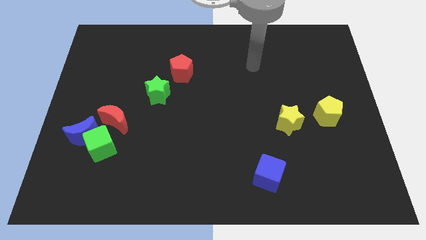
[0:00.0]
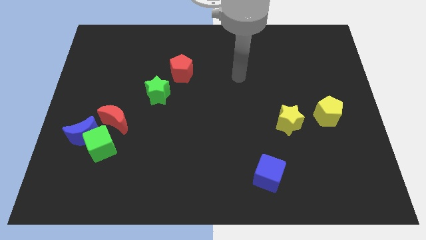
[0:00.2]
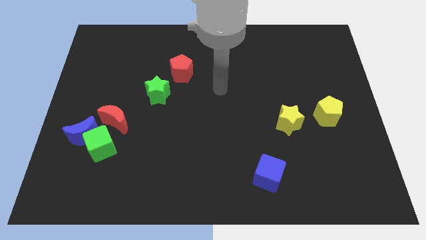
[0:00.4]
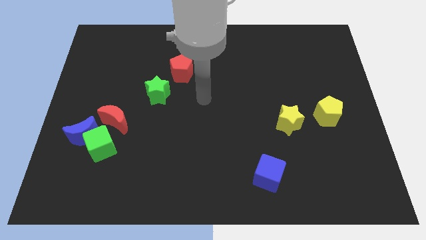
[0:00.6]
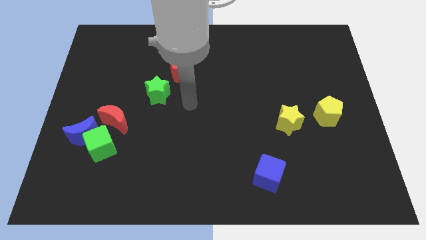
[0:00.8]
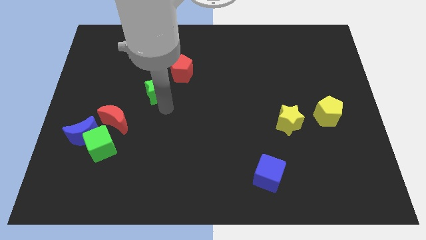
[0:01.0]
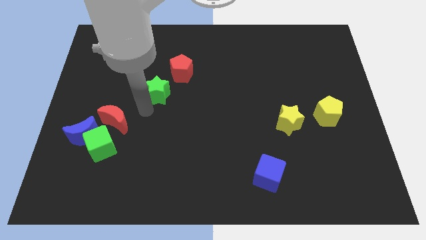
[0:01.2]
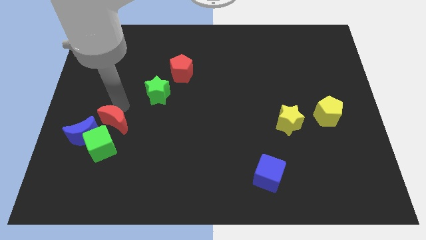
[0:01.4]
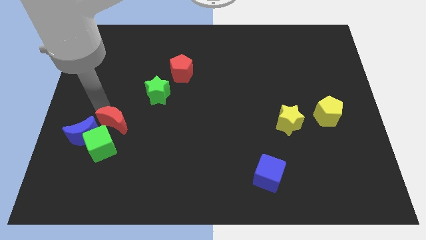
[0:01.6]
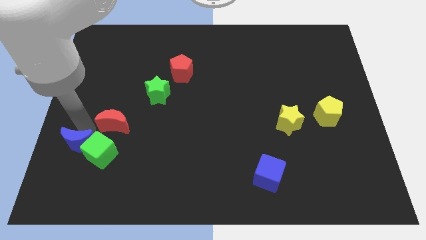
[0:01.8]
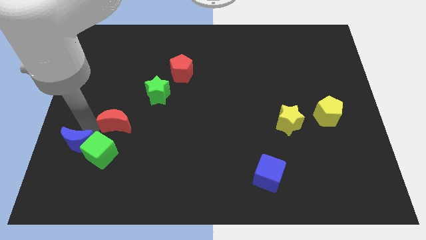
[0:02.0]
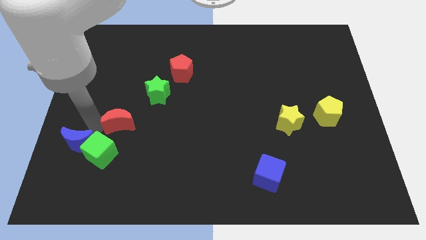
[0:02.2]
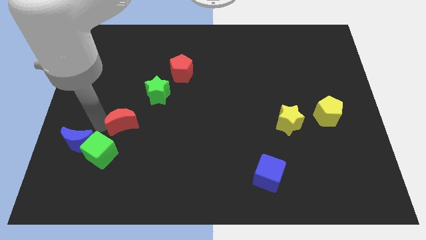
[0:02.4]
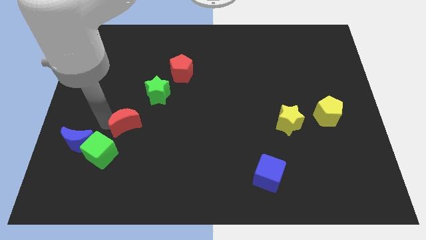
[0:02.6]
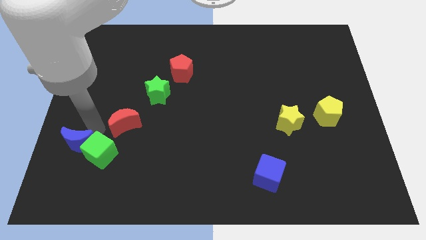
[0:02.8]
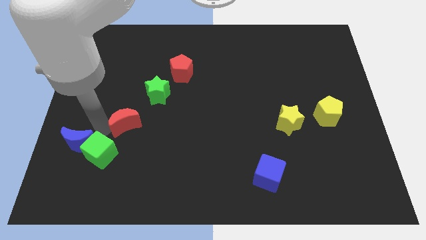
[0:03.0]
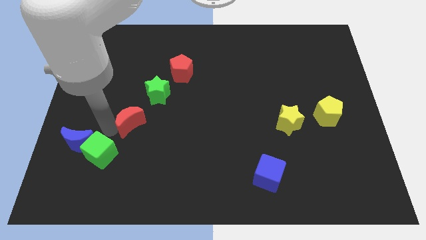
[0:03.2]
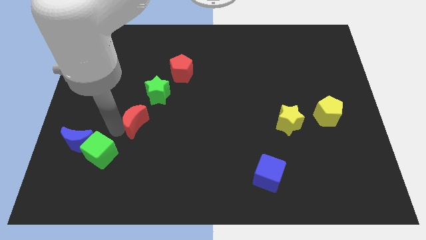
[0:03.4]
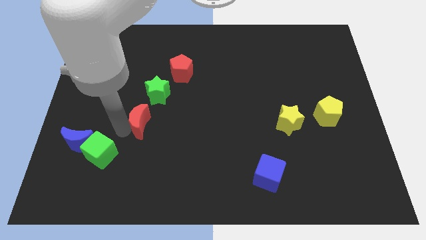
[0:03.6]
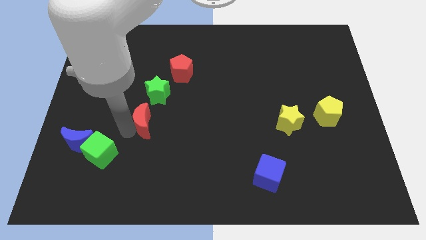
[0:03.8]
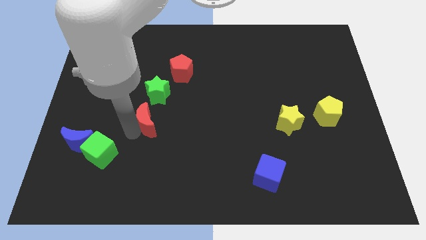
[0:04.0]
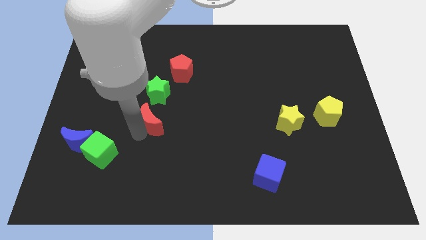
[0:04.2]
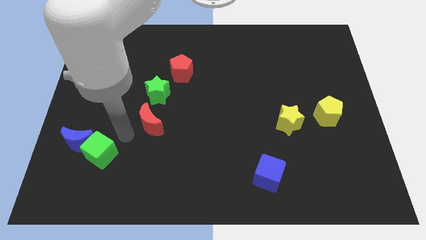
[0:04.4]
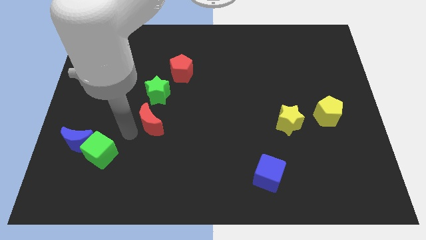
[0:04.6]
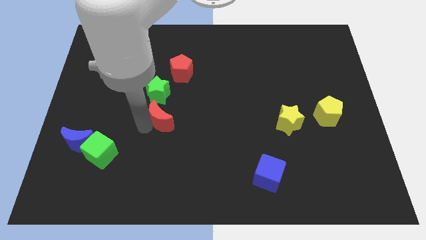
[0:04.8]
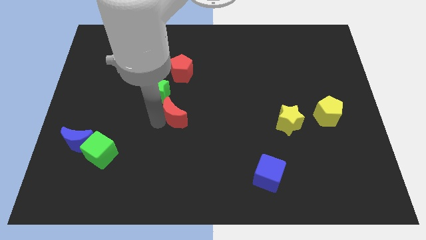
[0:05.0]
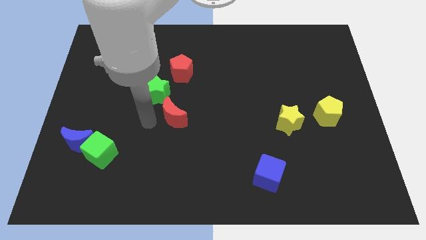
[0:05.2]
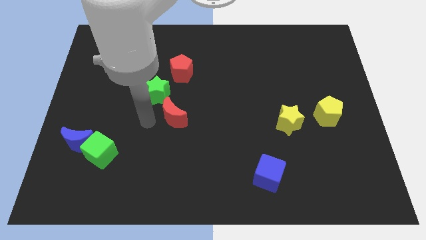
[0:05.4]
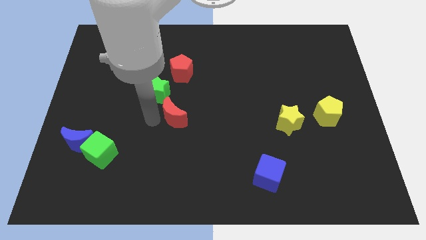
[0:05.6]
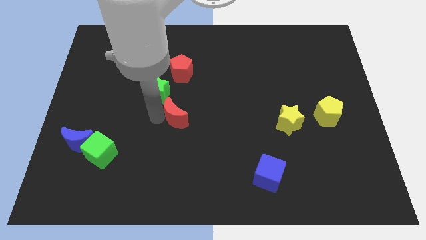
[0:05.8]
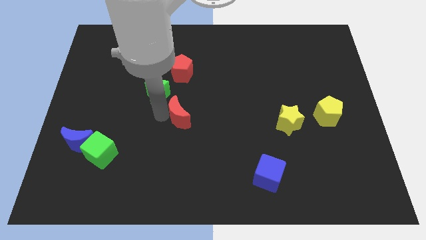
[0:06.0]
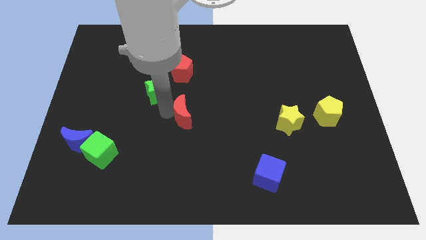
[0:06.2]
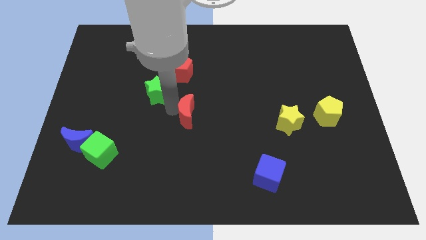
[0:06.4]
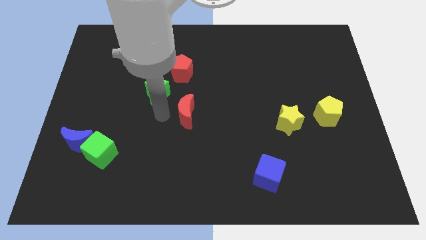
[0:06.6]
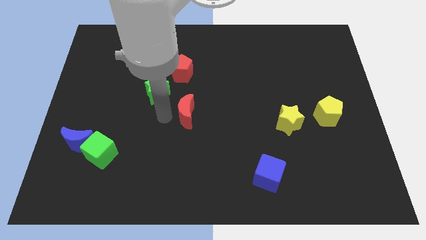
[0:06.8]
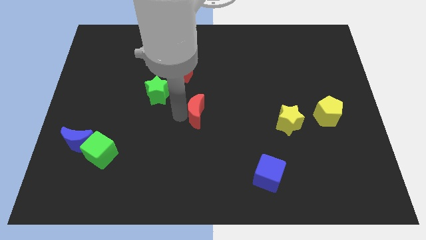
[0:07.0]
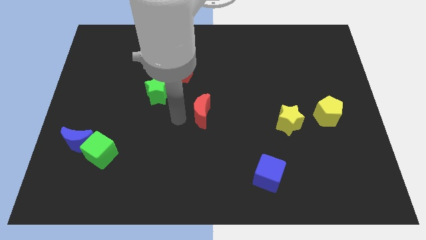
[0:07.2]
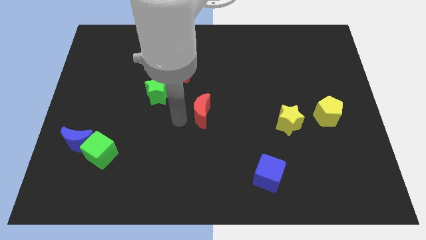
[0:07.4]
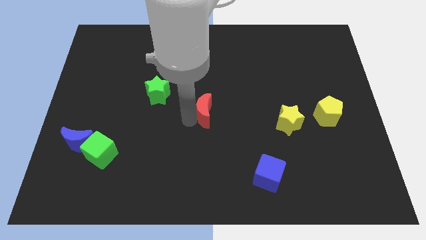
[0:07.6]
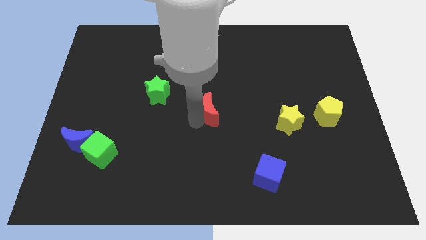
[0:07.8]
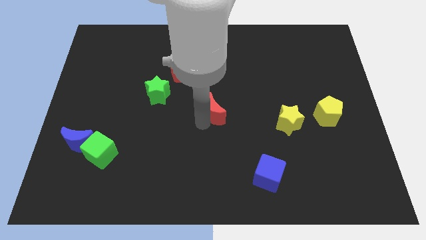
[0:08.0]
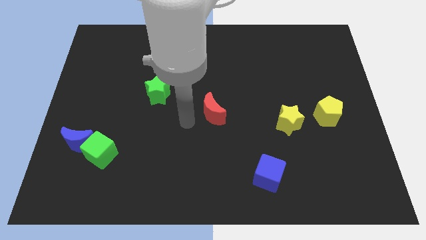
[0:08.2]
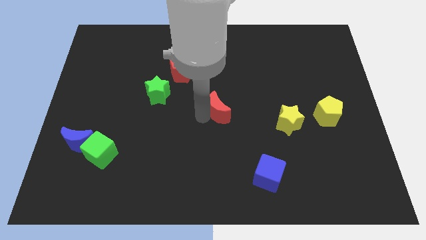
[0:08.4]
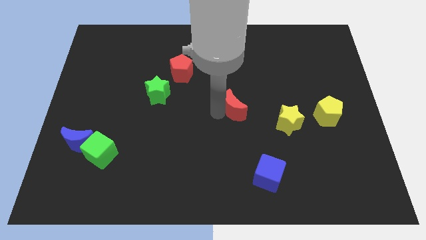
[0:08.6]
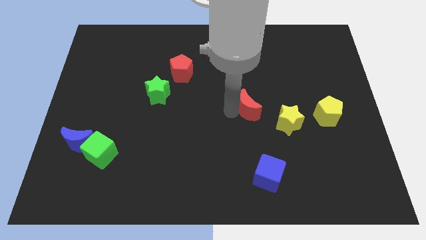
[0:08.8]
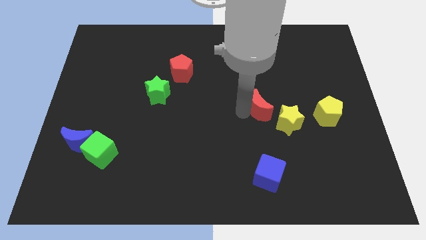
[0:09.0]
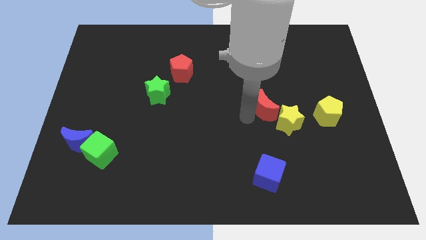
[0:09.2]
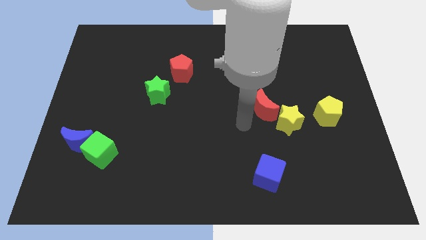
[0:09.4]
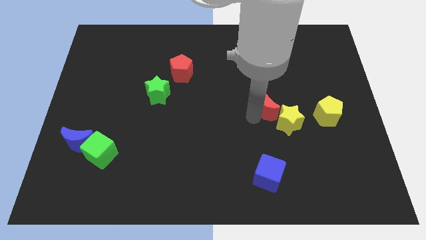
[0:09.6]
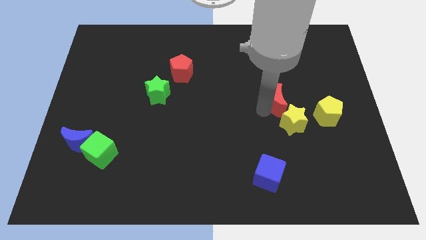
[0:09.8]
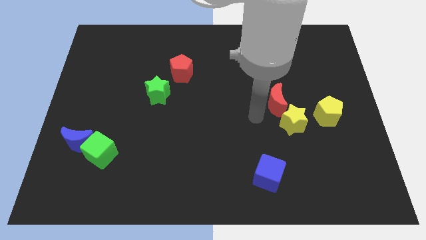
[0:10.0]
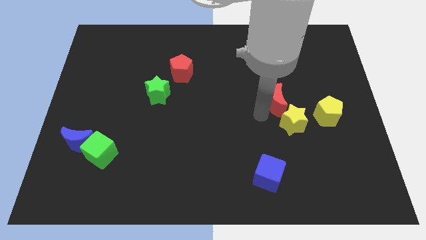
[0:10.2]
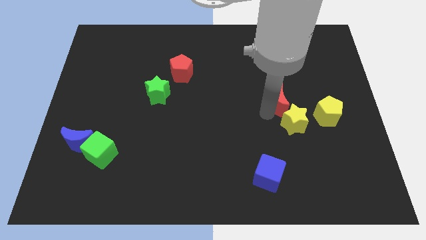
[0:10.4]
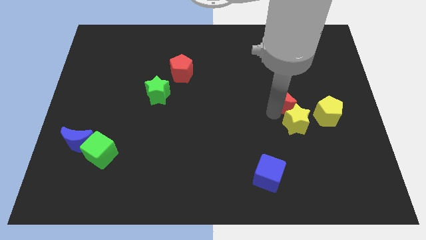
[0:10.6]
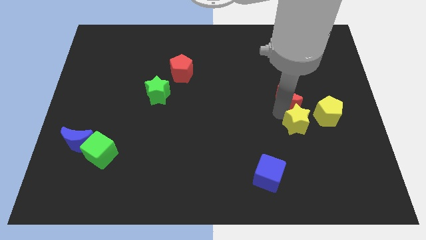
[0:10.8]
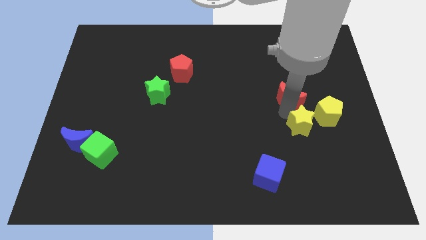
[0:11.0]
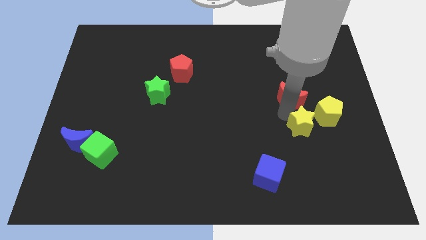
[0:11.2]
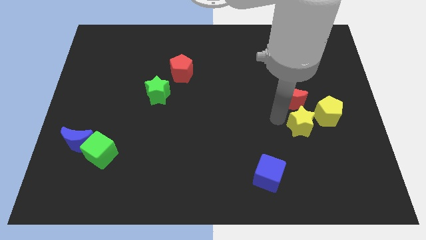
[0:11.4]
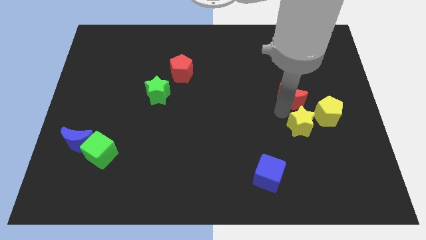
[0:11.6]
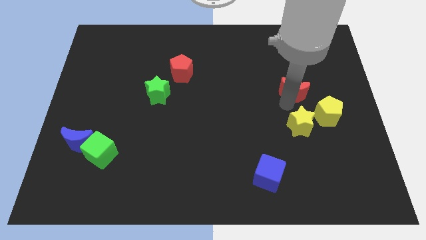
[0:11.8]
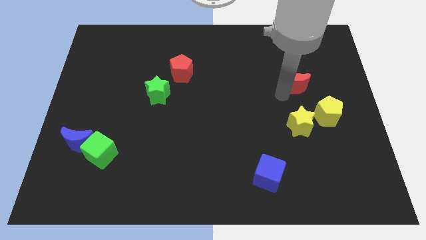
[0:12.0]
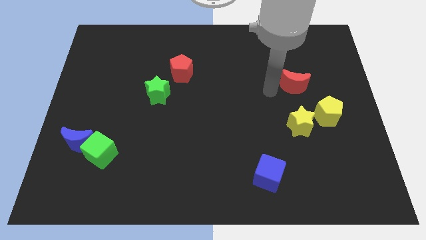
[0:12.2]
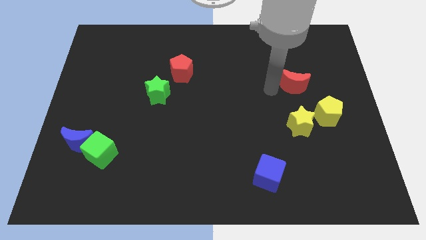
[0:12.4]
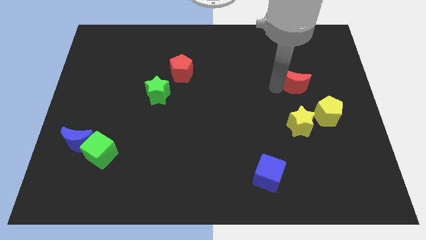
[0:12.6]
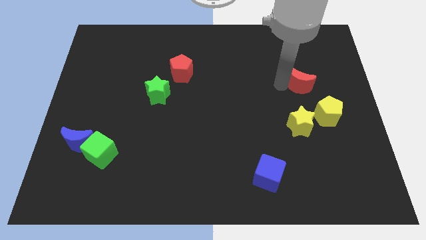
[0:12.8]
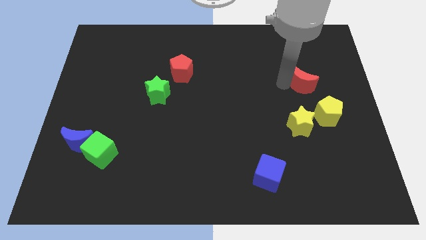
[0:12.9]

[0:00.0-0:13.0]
put the red moon above the yellow pentagon

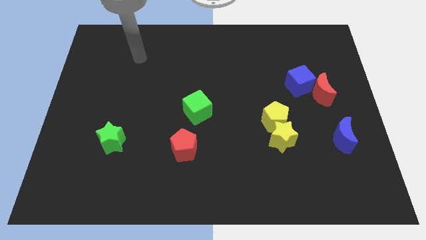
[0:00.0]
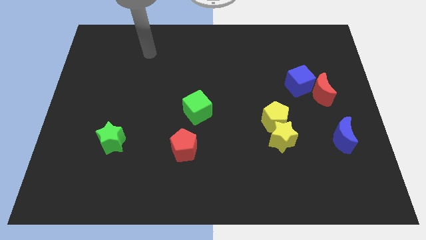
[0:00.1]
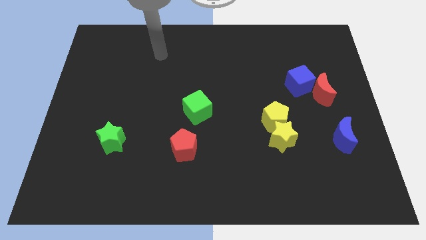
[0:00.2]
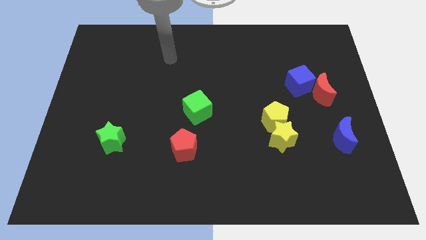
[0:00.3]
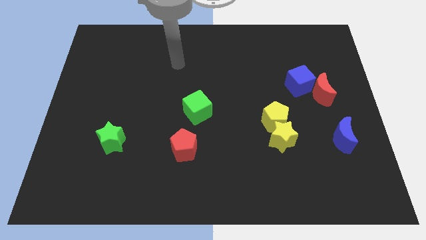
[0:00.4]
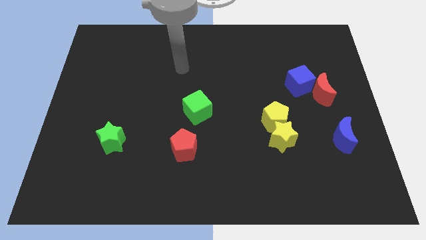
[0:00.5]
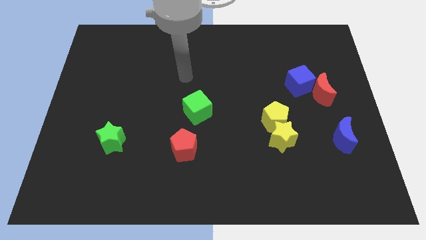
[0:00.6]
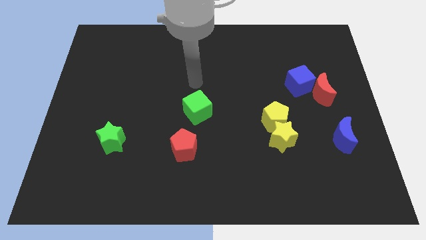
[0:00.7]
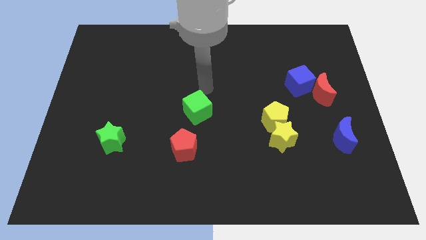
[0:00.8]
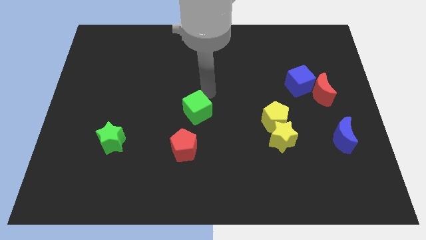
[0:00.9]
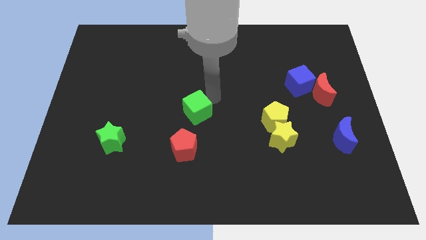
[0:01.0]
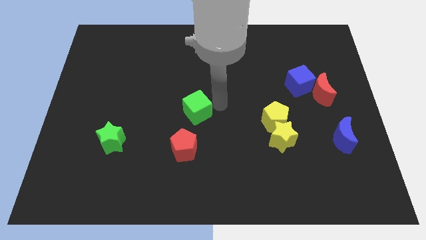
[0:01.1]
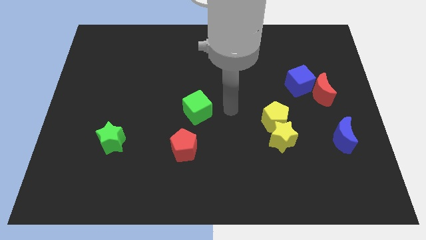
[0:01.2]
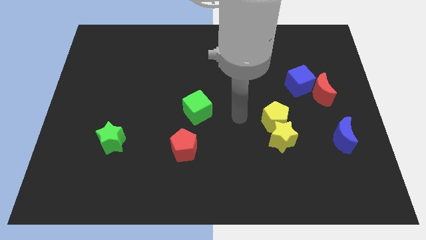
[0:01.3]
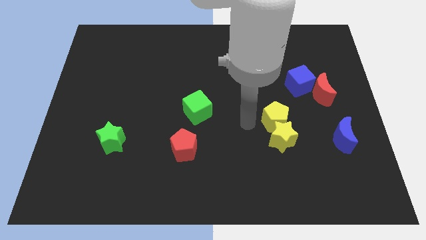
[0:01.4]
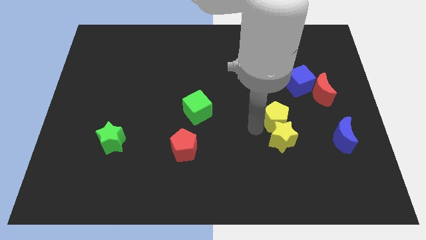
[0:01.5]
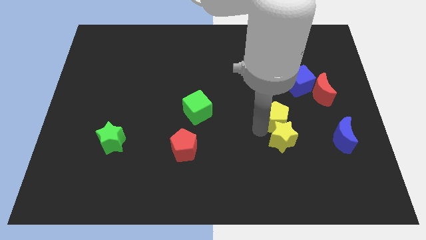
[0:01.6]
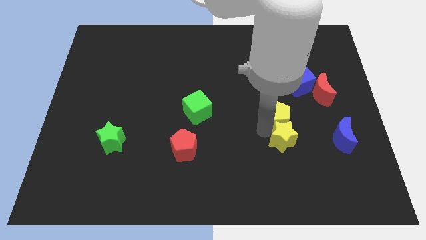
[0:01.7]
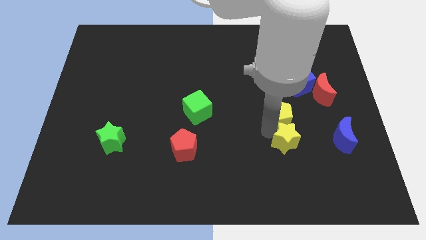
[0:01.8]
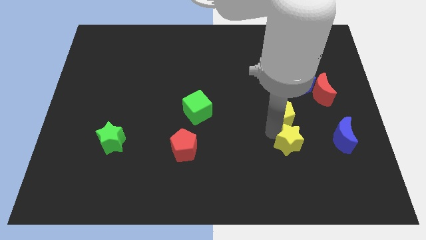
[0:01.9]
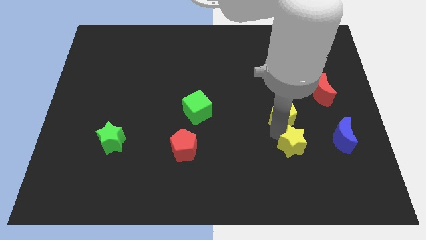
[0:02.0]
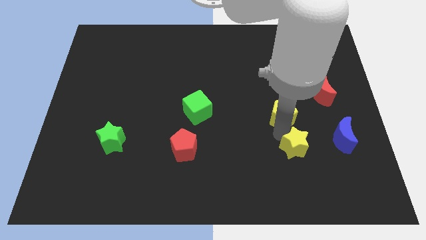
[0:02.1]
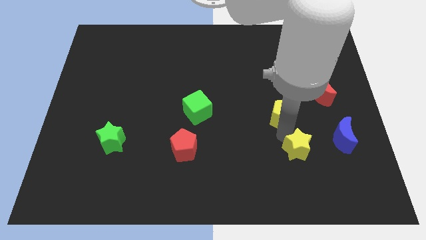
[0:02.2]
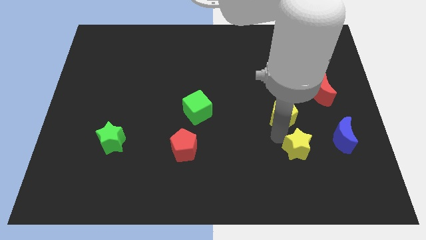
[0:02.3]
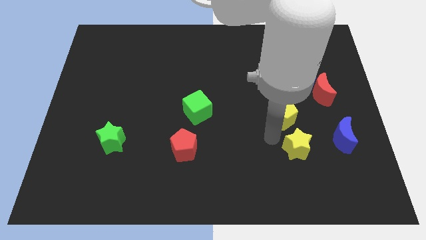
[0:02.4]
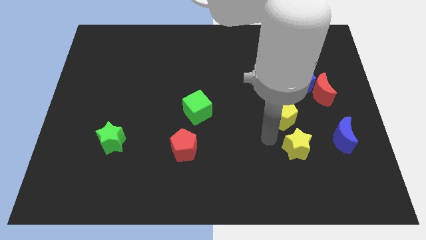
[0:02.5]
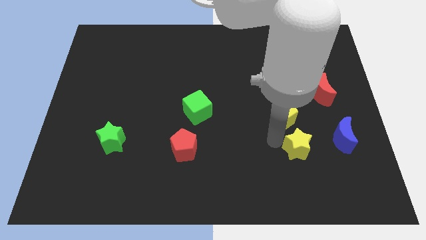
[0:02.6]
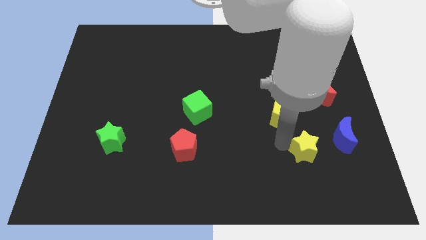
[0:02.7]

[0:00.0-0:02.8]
slide the yellow star to the bottom left of the blue moon
